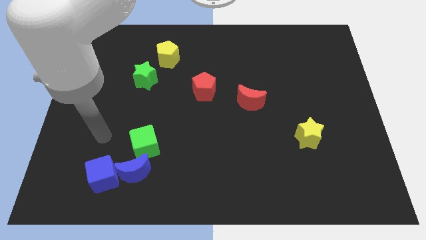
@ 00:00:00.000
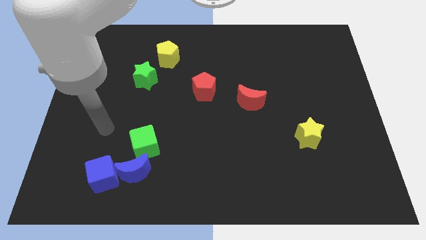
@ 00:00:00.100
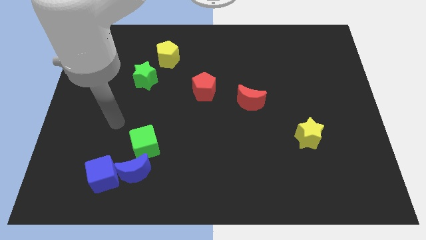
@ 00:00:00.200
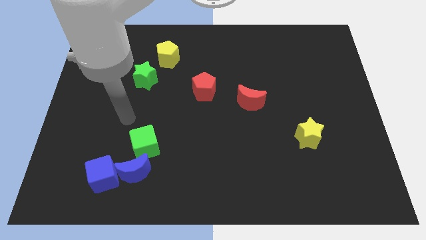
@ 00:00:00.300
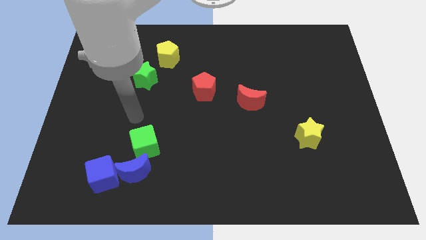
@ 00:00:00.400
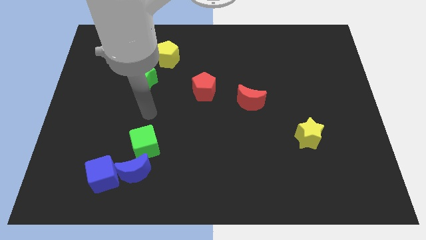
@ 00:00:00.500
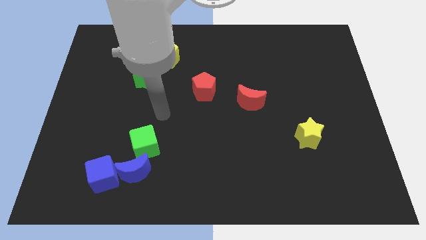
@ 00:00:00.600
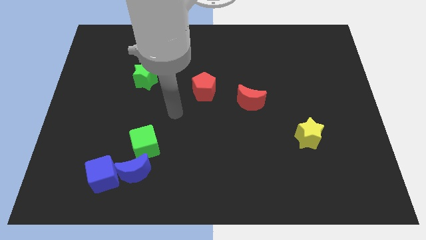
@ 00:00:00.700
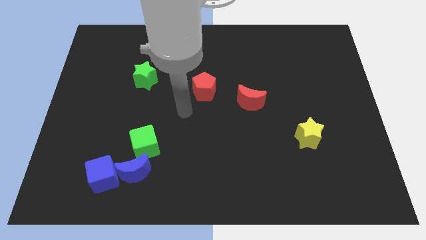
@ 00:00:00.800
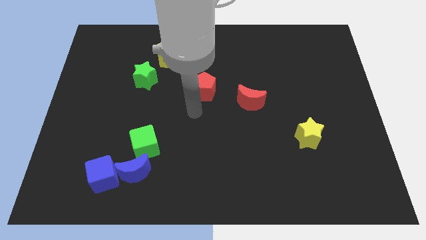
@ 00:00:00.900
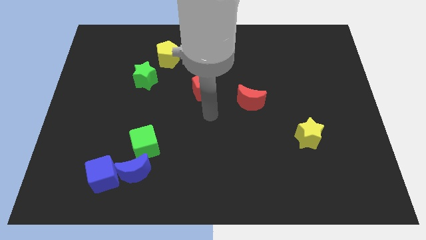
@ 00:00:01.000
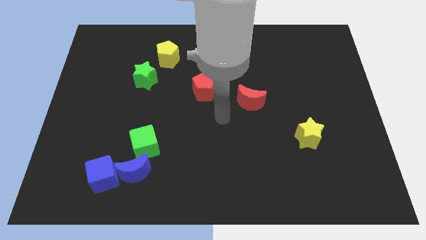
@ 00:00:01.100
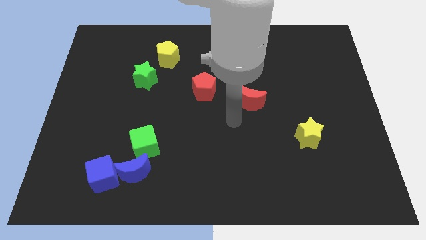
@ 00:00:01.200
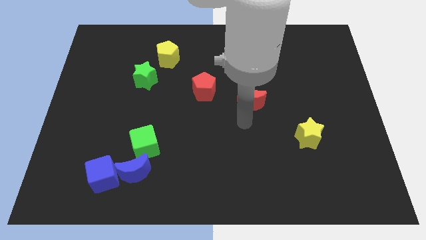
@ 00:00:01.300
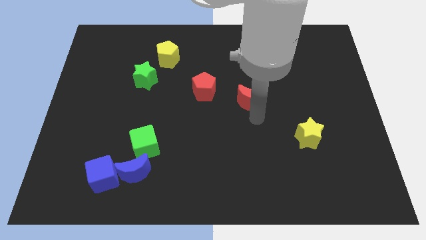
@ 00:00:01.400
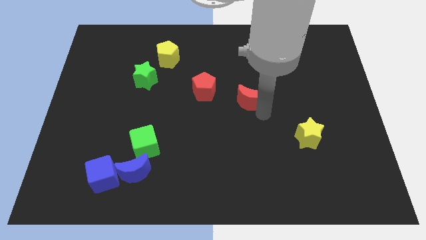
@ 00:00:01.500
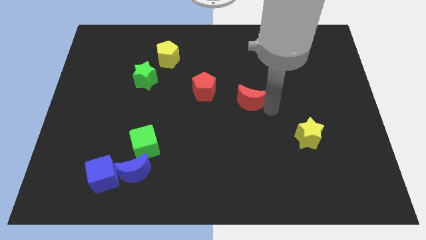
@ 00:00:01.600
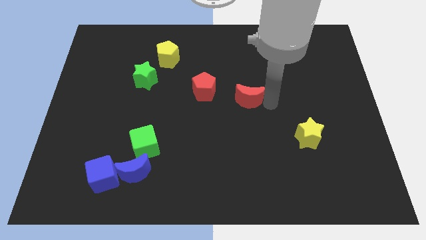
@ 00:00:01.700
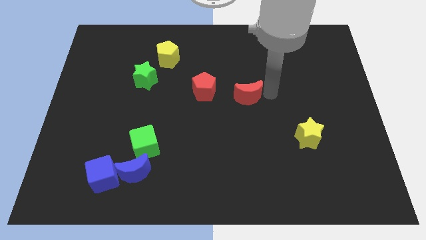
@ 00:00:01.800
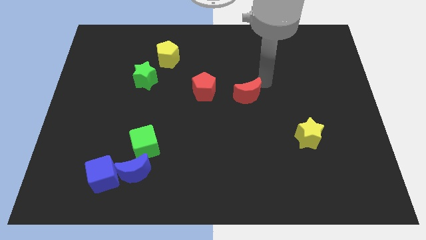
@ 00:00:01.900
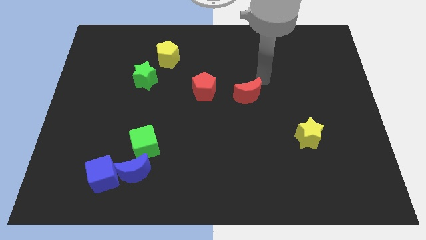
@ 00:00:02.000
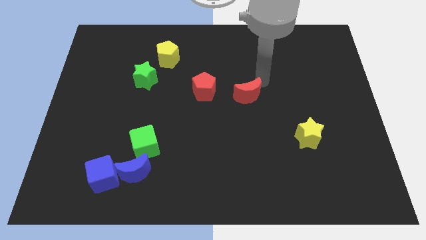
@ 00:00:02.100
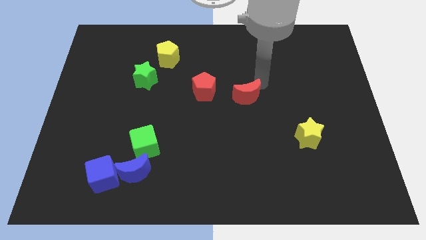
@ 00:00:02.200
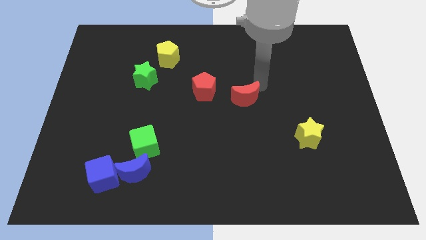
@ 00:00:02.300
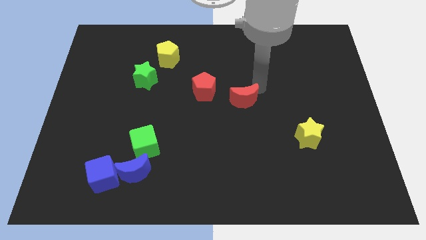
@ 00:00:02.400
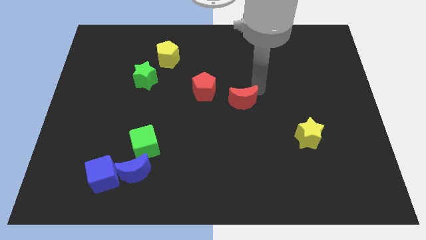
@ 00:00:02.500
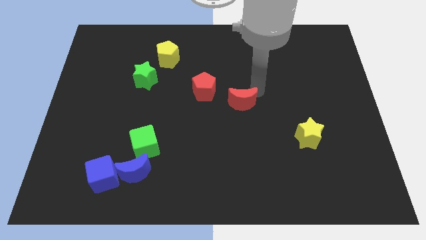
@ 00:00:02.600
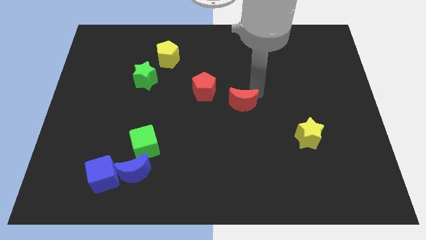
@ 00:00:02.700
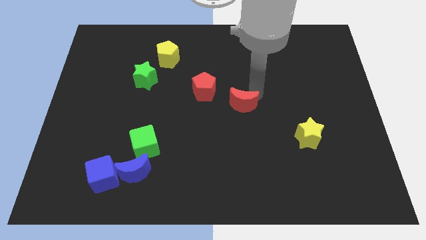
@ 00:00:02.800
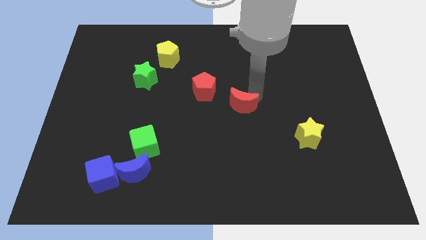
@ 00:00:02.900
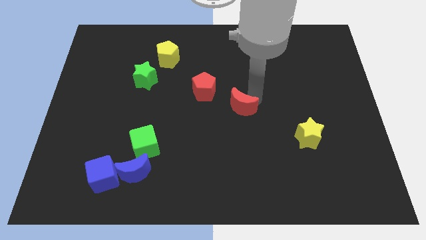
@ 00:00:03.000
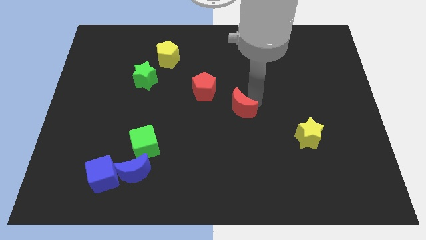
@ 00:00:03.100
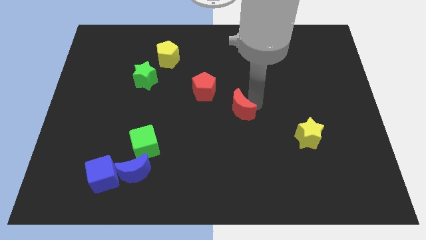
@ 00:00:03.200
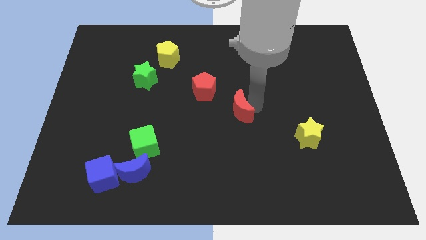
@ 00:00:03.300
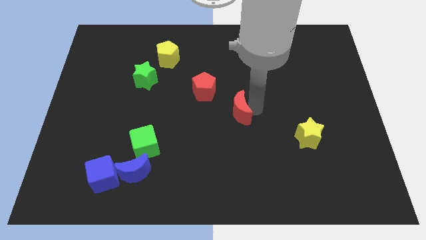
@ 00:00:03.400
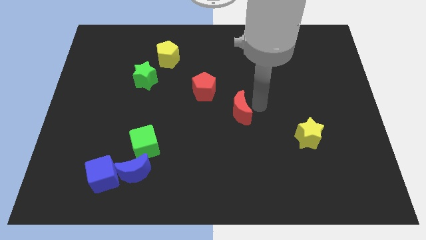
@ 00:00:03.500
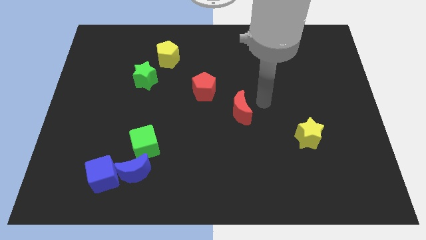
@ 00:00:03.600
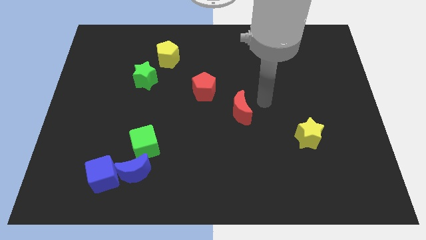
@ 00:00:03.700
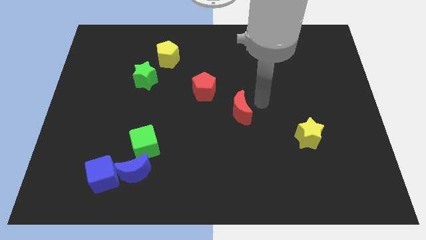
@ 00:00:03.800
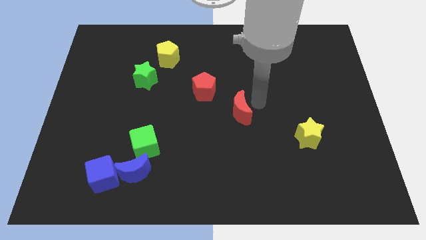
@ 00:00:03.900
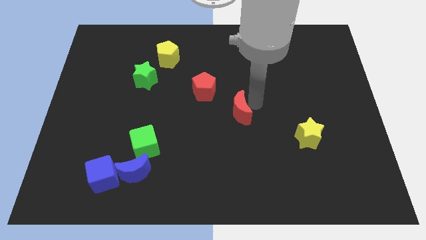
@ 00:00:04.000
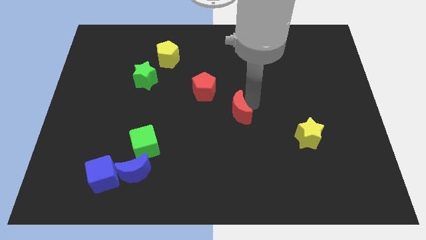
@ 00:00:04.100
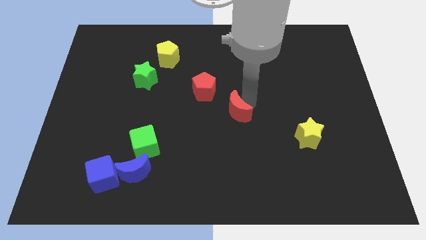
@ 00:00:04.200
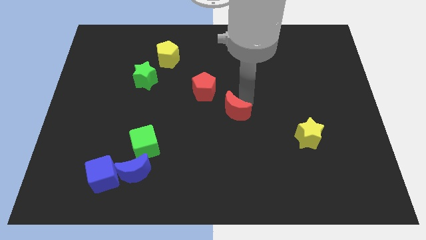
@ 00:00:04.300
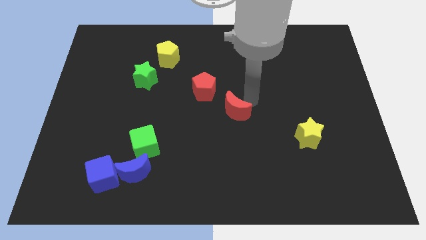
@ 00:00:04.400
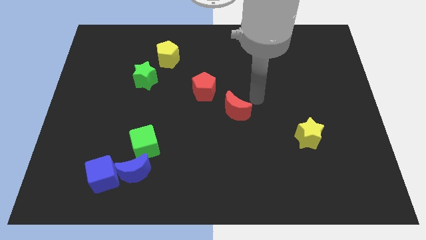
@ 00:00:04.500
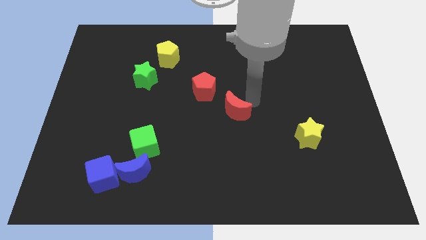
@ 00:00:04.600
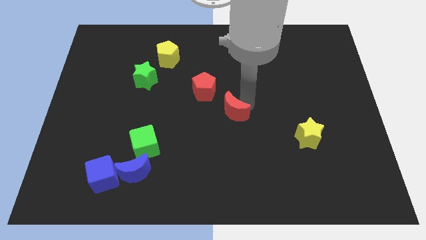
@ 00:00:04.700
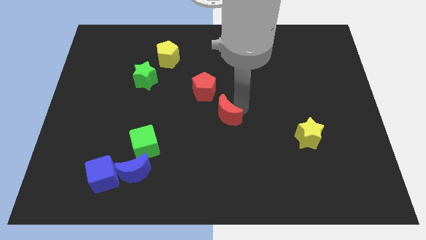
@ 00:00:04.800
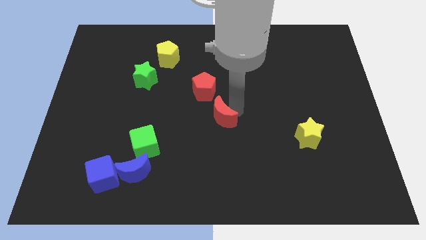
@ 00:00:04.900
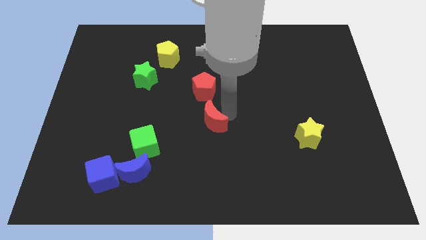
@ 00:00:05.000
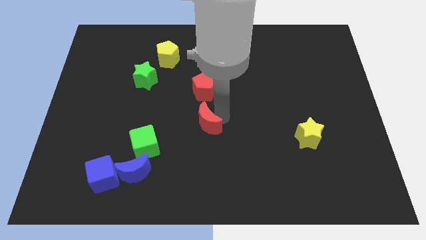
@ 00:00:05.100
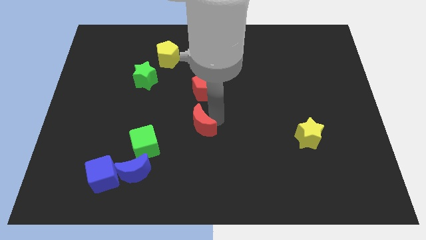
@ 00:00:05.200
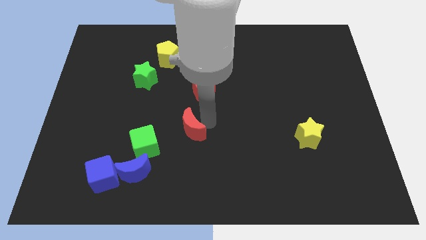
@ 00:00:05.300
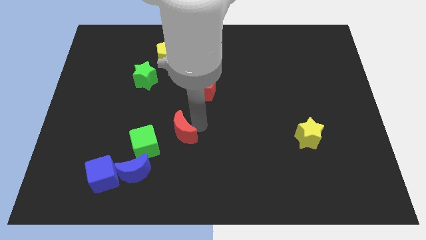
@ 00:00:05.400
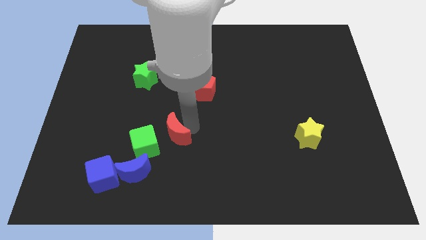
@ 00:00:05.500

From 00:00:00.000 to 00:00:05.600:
move the red moon diagonally up and to the right of the blue moon

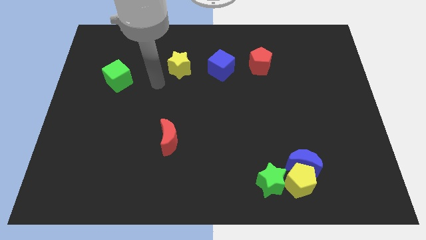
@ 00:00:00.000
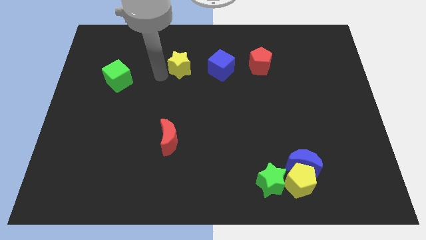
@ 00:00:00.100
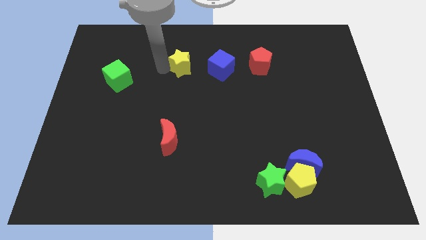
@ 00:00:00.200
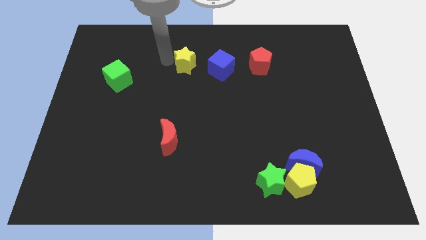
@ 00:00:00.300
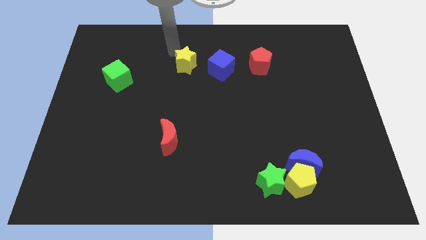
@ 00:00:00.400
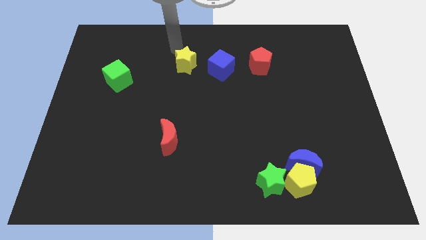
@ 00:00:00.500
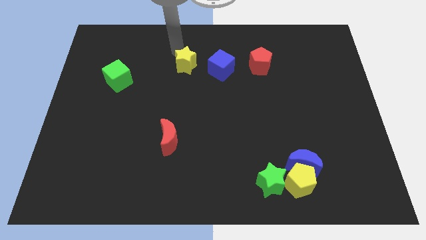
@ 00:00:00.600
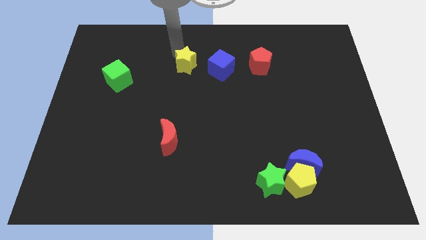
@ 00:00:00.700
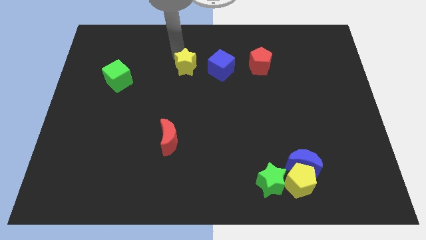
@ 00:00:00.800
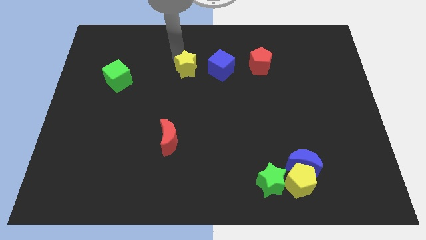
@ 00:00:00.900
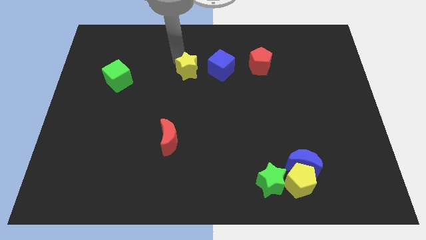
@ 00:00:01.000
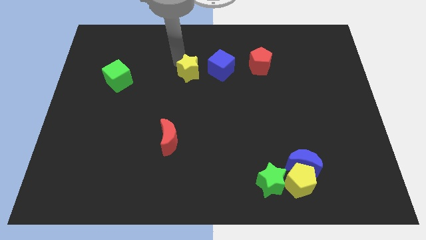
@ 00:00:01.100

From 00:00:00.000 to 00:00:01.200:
move the yellow star to the bottom left side of the blue cube
